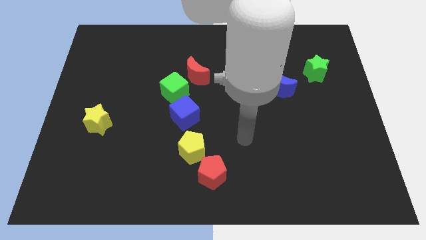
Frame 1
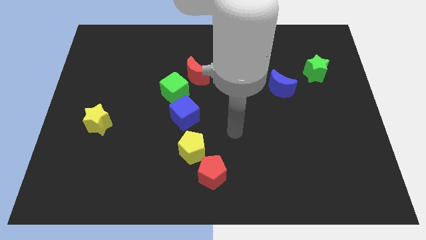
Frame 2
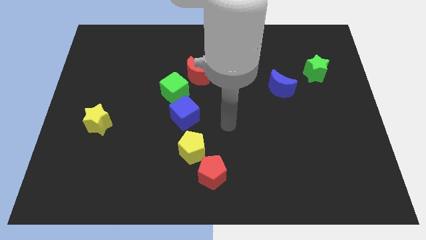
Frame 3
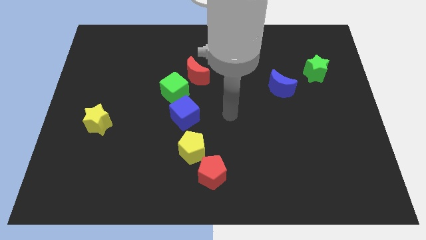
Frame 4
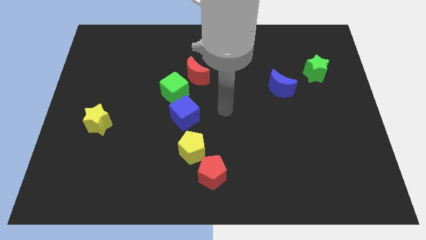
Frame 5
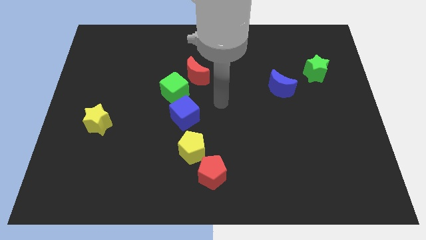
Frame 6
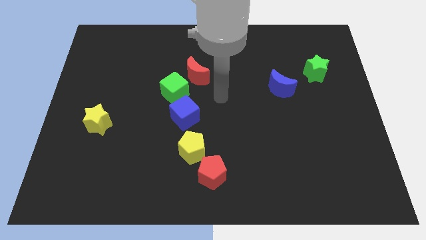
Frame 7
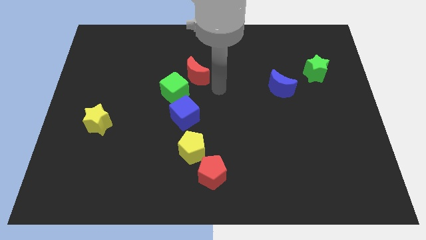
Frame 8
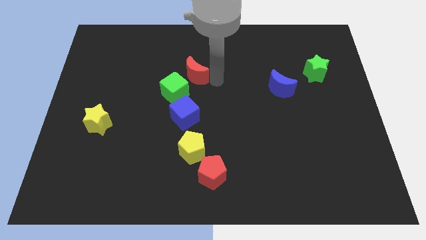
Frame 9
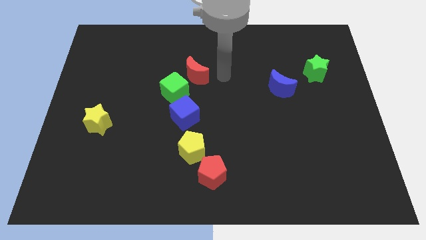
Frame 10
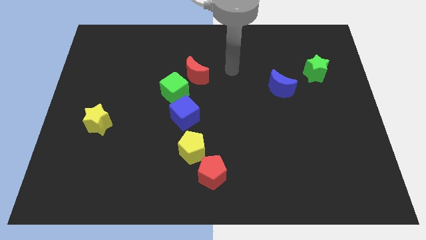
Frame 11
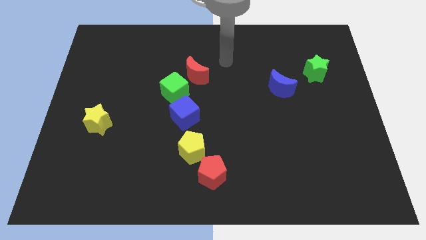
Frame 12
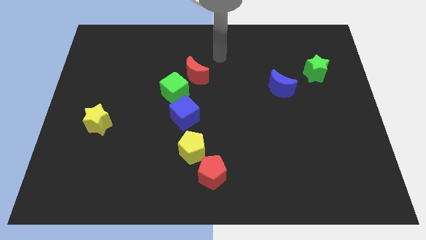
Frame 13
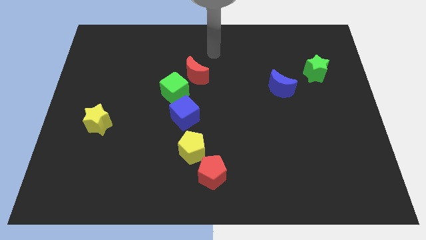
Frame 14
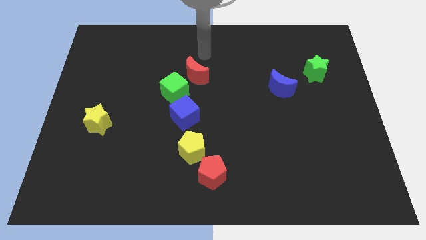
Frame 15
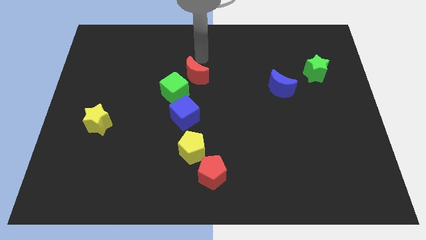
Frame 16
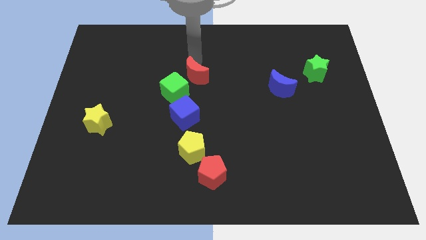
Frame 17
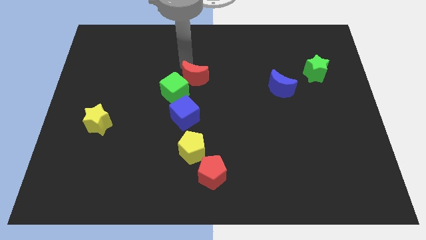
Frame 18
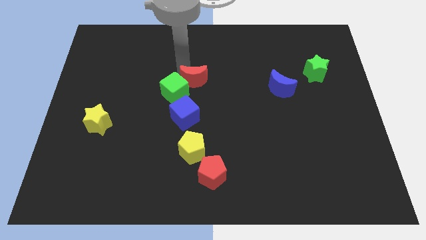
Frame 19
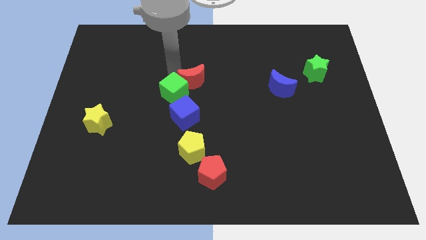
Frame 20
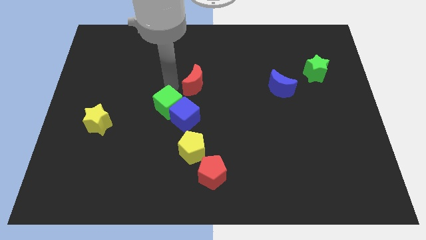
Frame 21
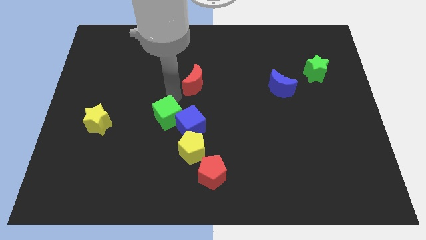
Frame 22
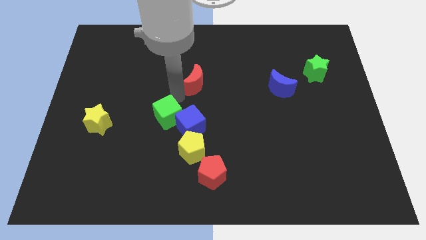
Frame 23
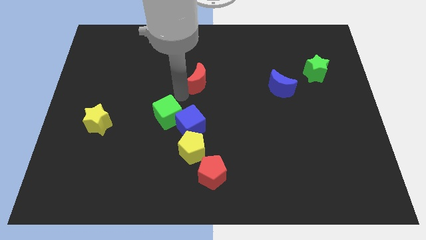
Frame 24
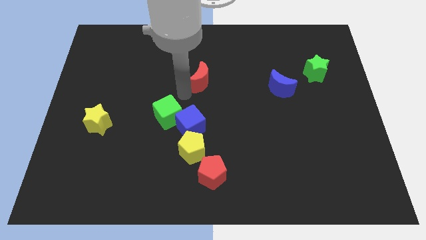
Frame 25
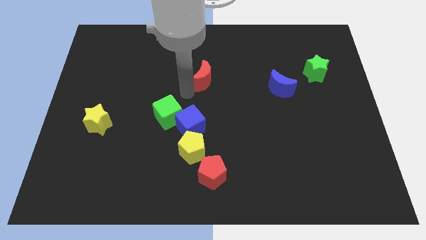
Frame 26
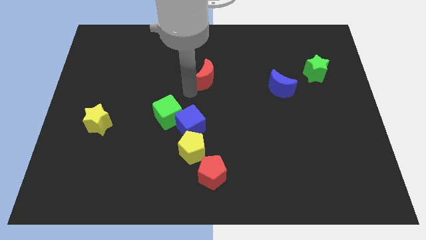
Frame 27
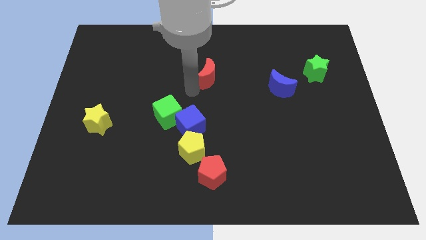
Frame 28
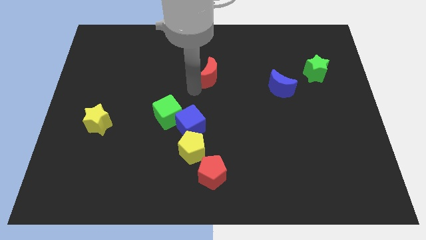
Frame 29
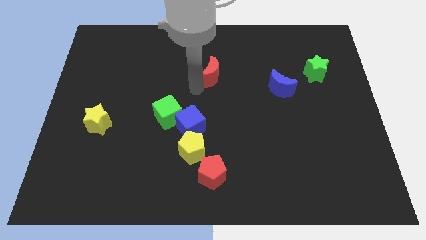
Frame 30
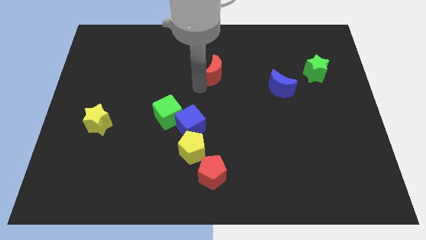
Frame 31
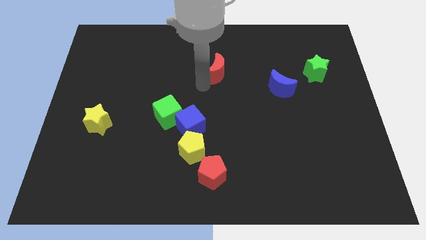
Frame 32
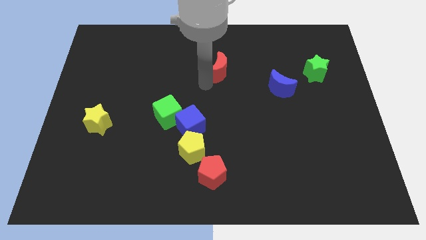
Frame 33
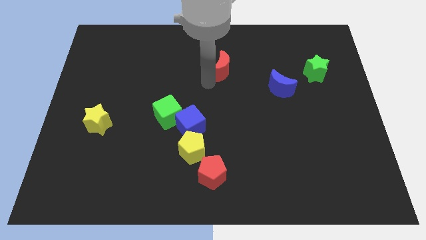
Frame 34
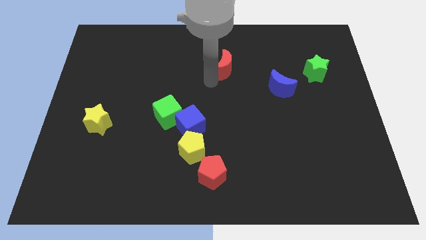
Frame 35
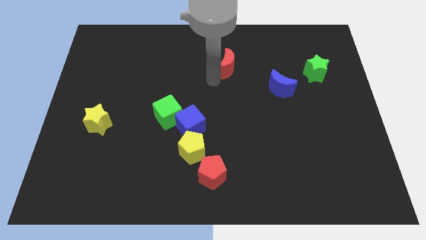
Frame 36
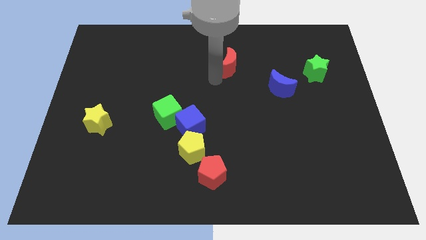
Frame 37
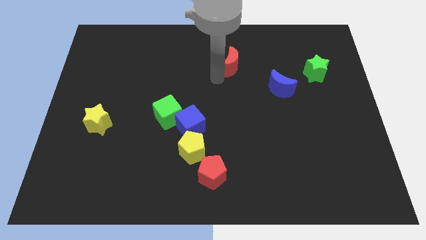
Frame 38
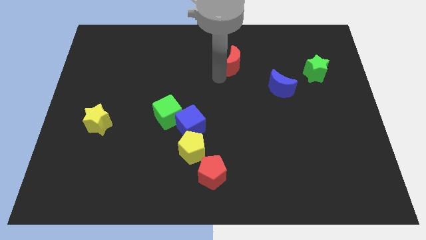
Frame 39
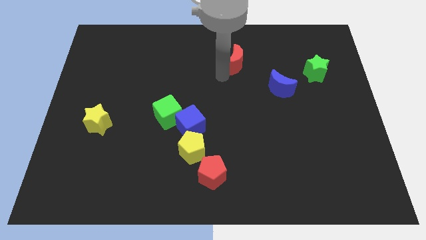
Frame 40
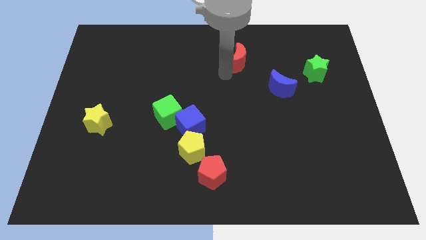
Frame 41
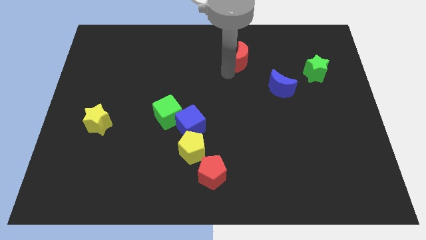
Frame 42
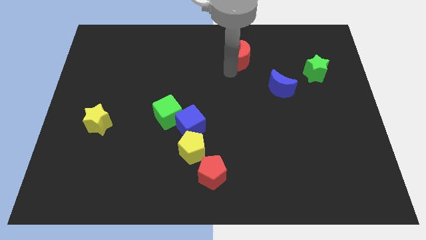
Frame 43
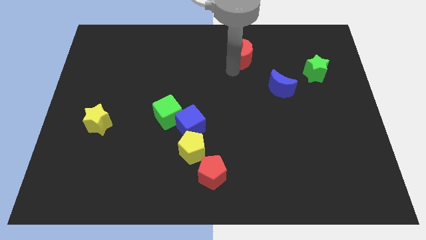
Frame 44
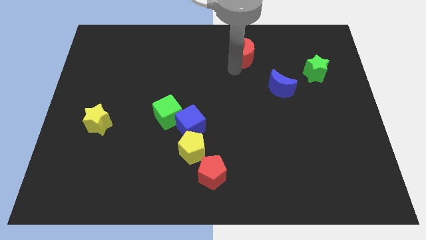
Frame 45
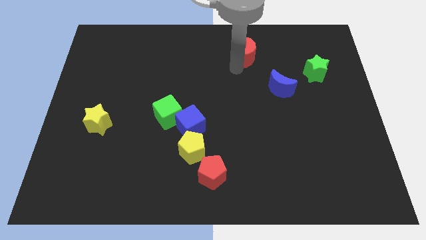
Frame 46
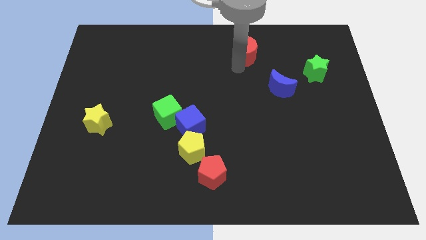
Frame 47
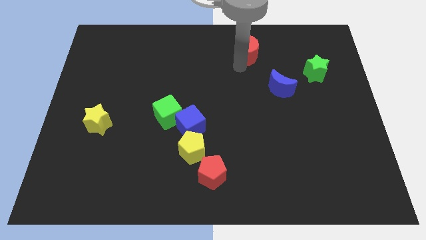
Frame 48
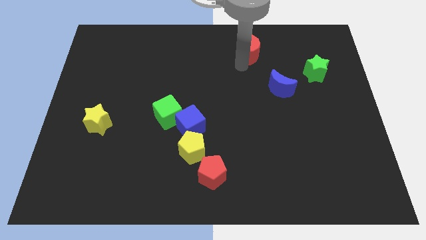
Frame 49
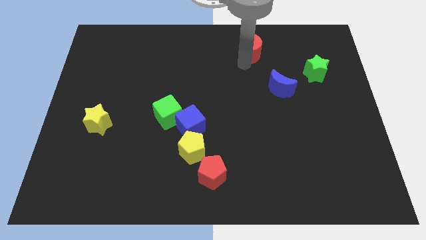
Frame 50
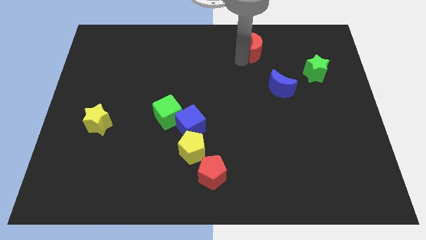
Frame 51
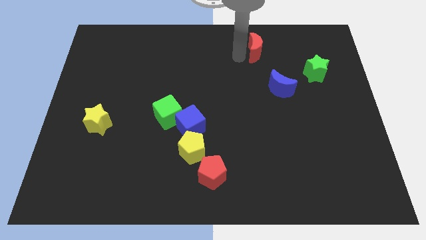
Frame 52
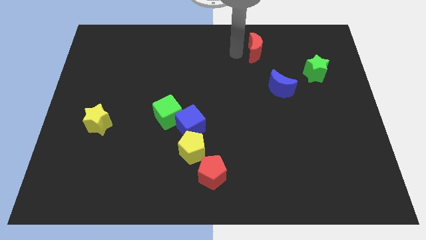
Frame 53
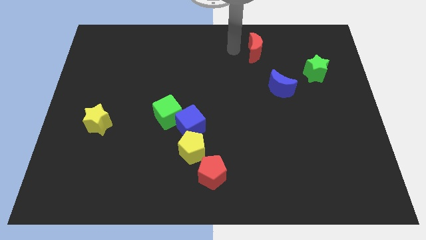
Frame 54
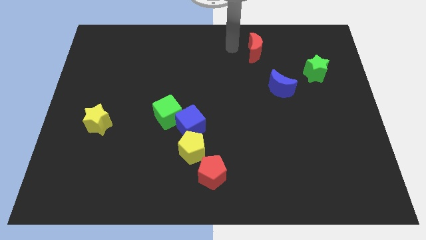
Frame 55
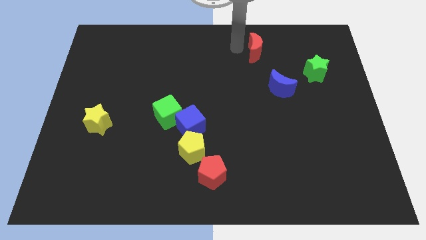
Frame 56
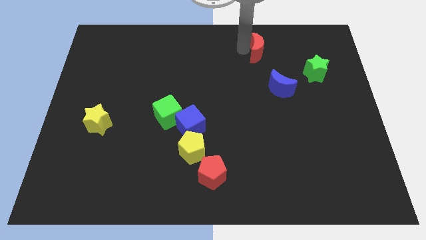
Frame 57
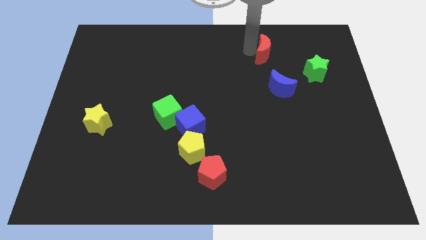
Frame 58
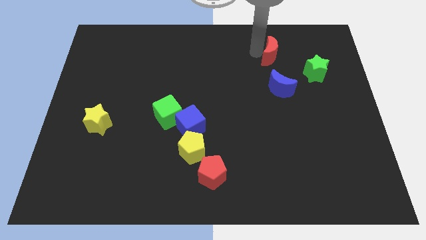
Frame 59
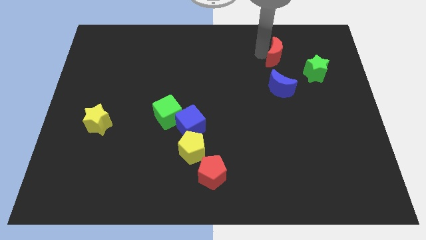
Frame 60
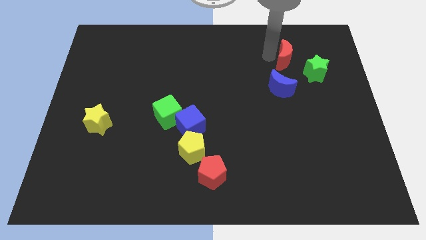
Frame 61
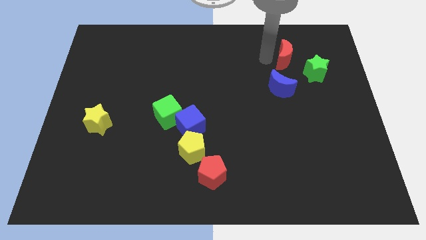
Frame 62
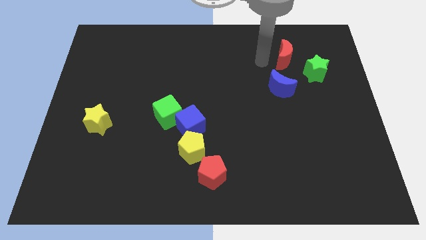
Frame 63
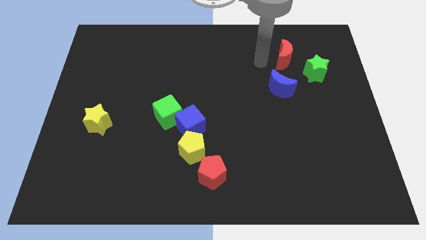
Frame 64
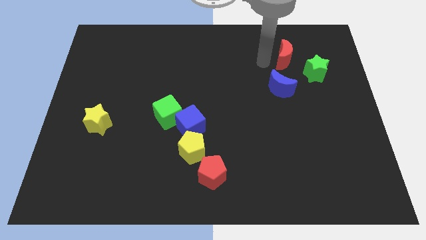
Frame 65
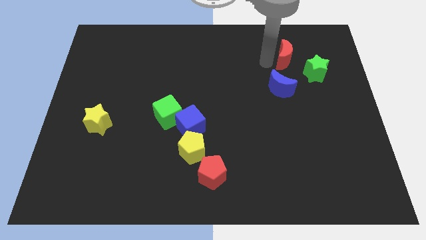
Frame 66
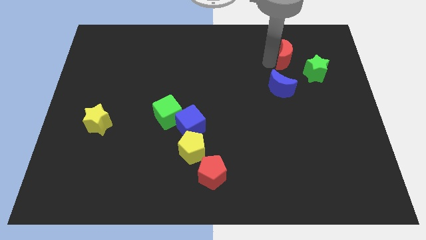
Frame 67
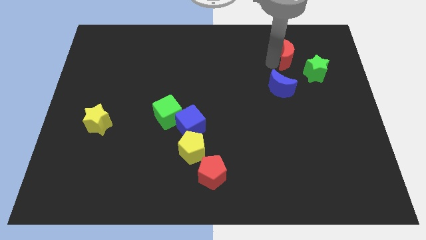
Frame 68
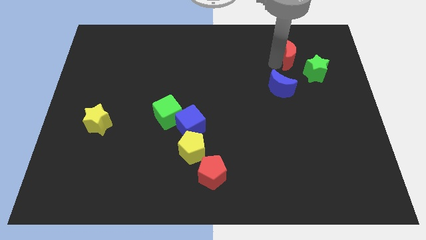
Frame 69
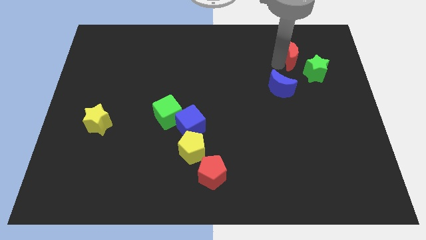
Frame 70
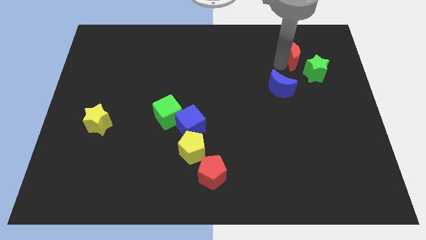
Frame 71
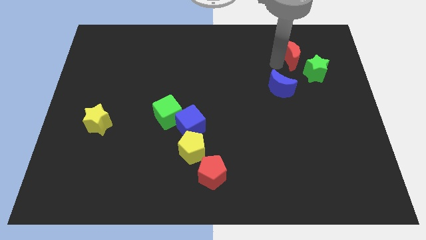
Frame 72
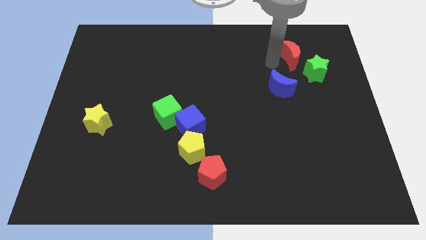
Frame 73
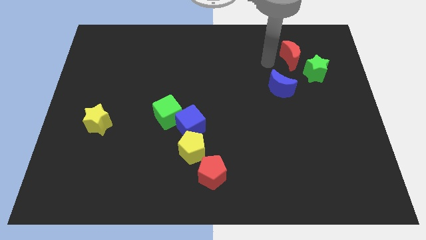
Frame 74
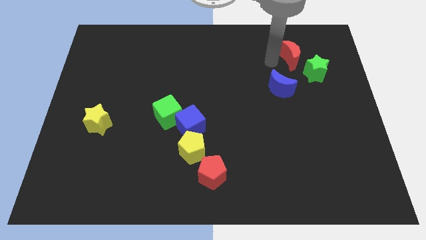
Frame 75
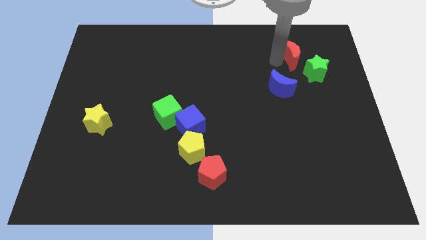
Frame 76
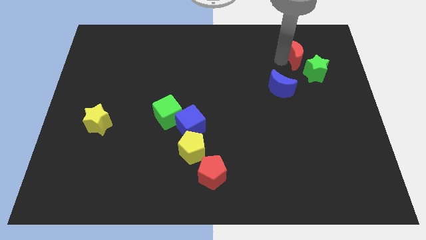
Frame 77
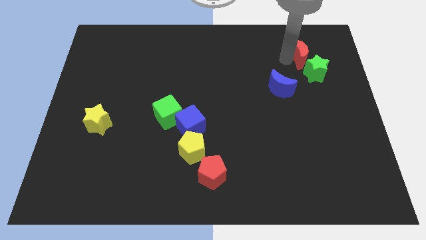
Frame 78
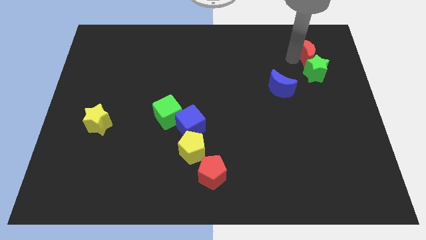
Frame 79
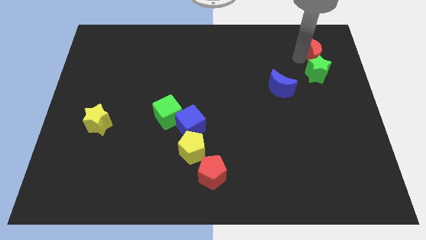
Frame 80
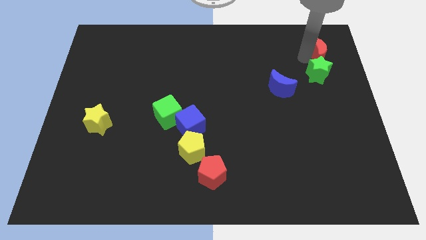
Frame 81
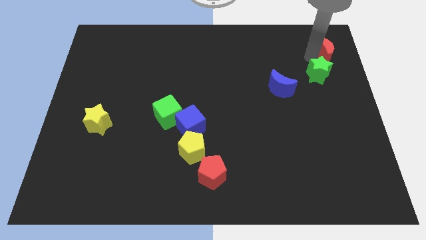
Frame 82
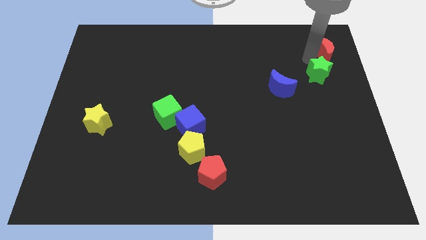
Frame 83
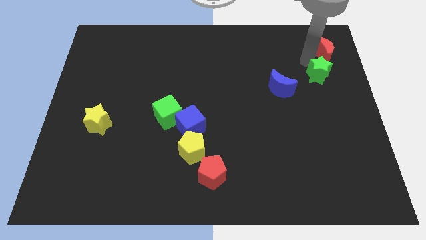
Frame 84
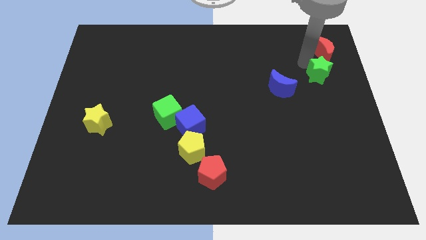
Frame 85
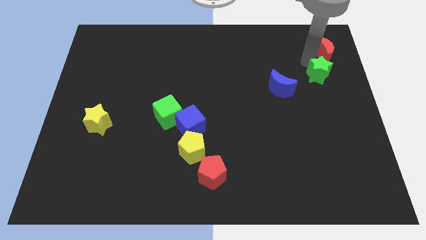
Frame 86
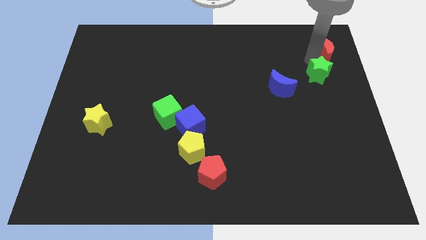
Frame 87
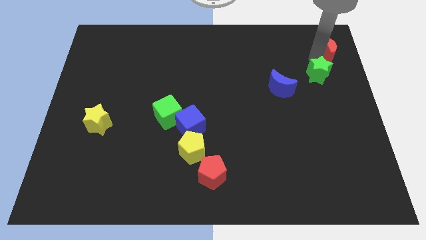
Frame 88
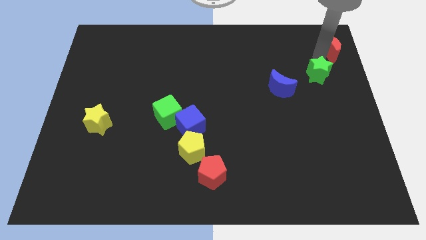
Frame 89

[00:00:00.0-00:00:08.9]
push the red moon to the upper right corner
